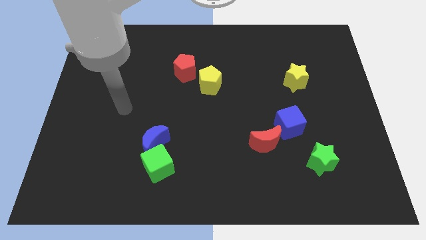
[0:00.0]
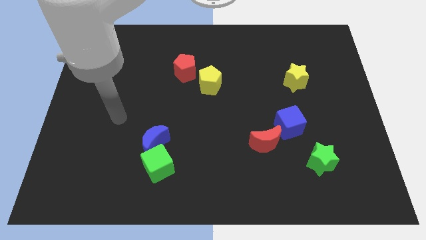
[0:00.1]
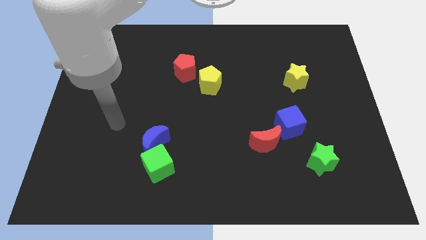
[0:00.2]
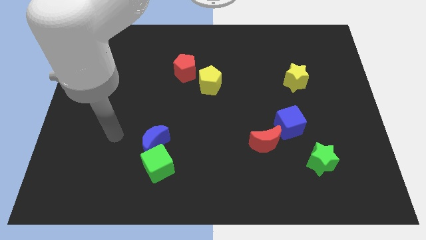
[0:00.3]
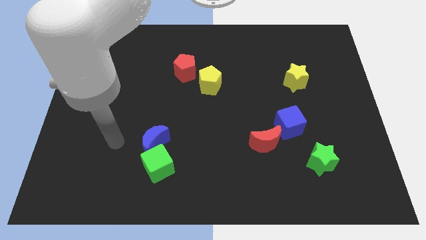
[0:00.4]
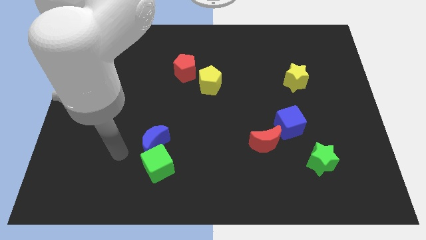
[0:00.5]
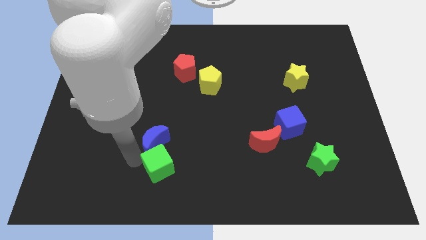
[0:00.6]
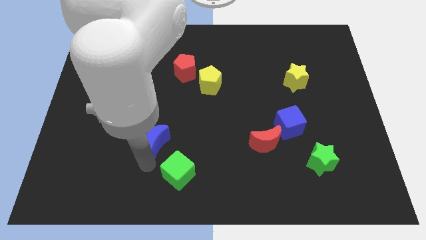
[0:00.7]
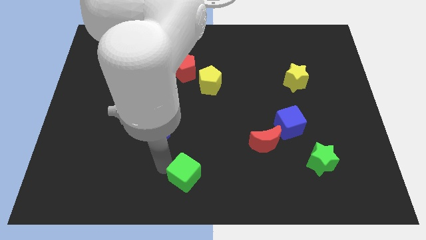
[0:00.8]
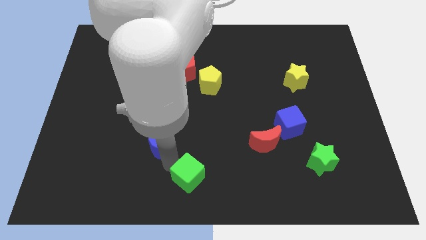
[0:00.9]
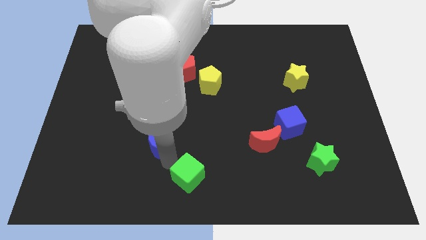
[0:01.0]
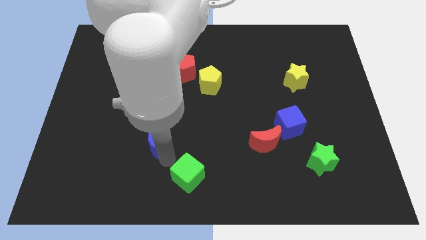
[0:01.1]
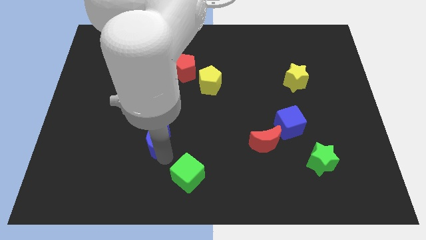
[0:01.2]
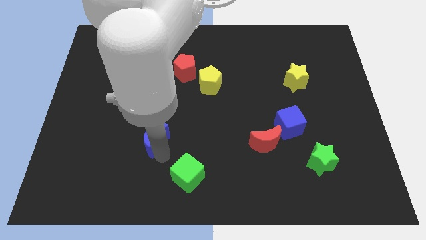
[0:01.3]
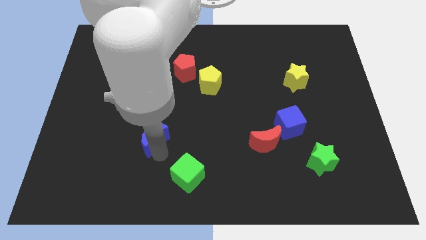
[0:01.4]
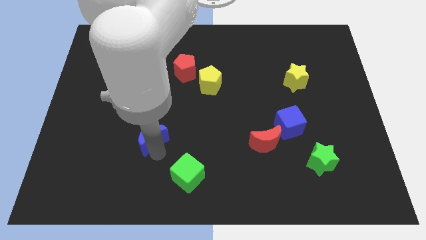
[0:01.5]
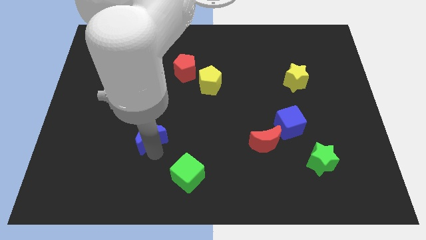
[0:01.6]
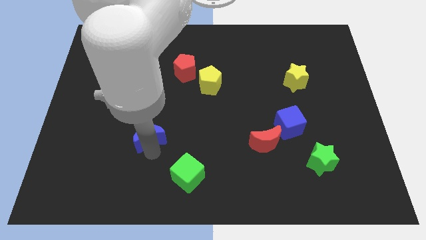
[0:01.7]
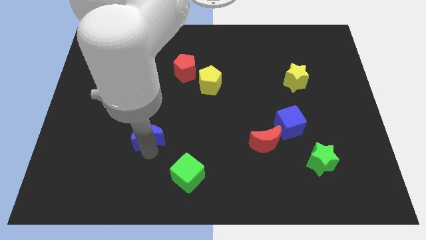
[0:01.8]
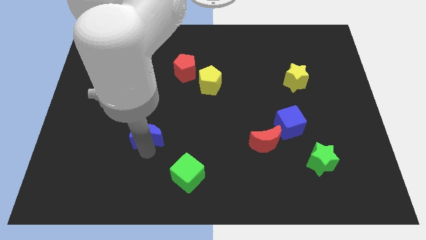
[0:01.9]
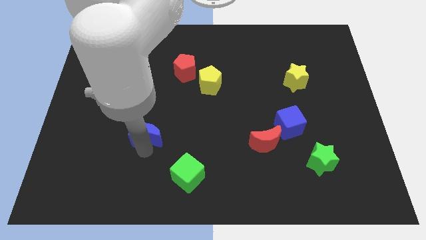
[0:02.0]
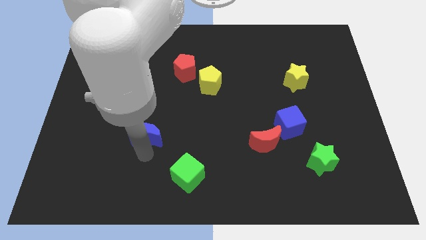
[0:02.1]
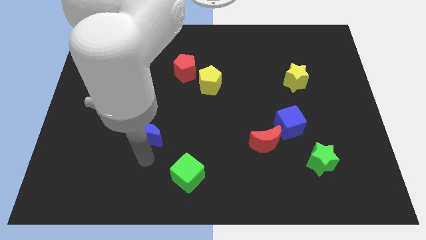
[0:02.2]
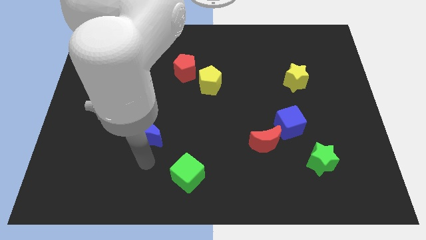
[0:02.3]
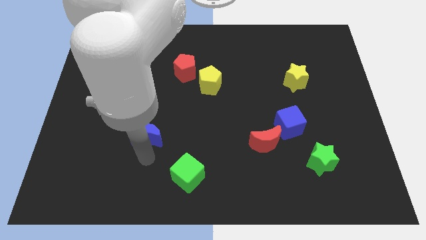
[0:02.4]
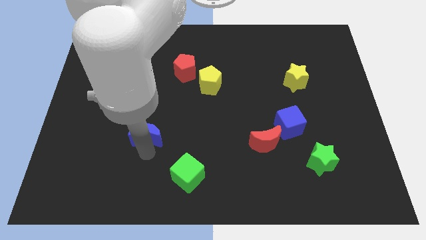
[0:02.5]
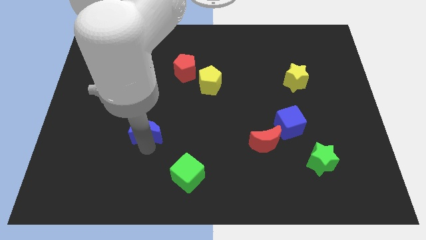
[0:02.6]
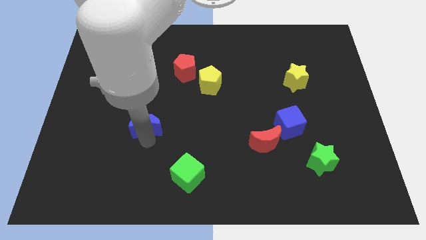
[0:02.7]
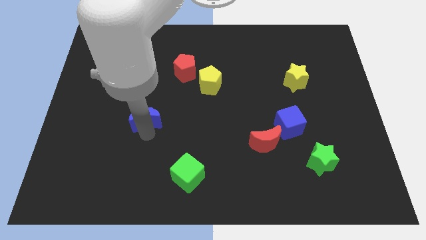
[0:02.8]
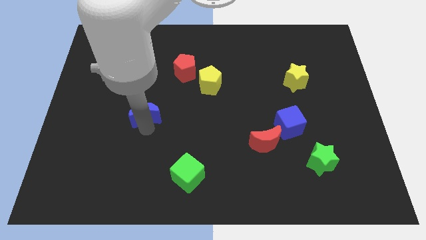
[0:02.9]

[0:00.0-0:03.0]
slightly push the blue moon upwards

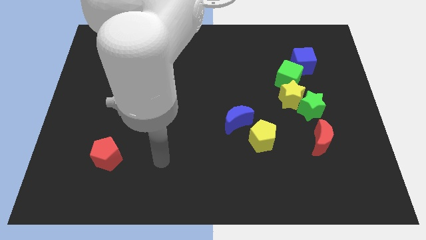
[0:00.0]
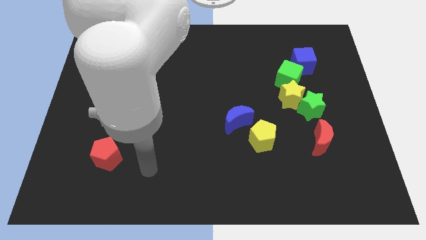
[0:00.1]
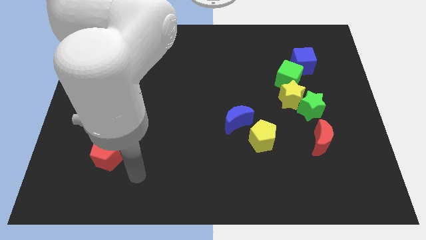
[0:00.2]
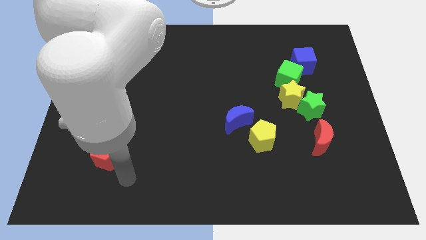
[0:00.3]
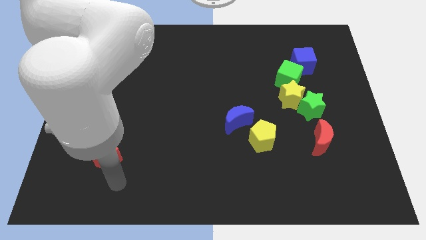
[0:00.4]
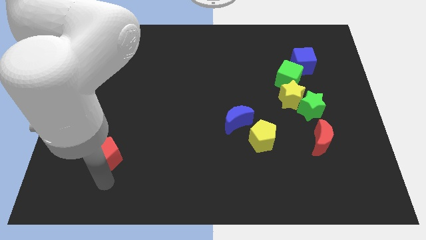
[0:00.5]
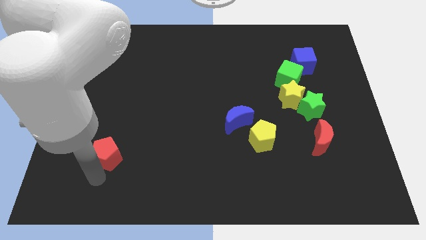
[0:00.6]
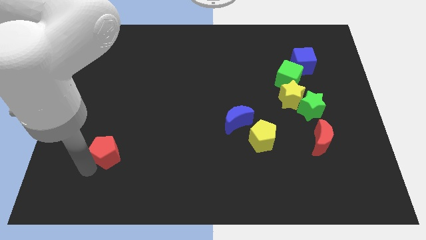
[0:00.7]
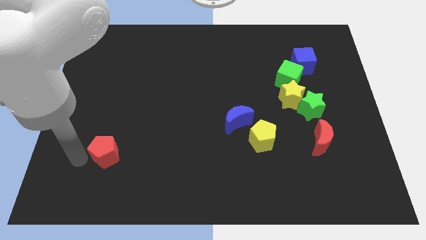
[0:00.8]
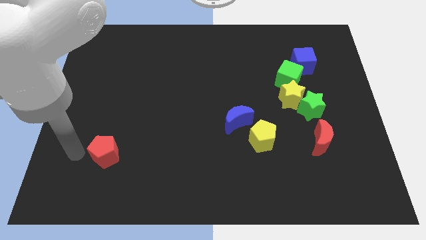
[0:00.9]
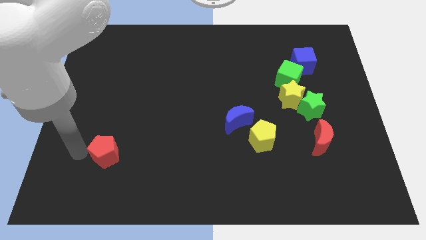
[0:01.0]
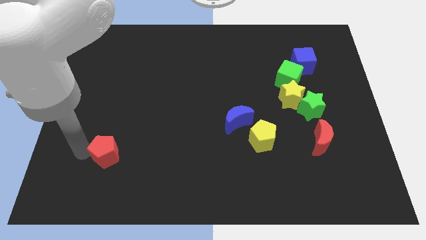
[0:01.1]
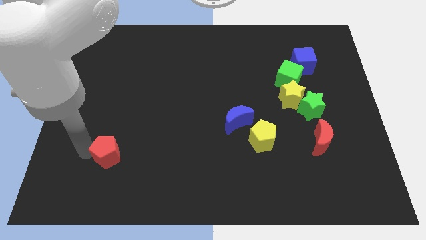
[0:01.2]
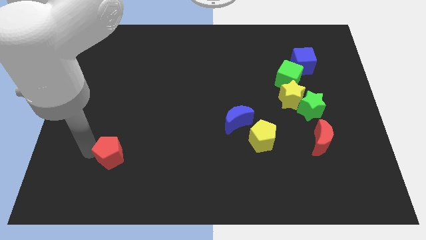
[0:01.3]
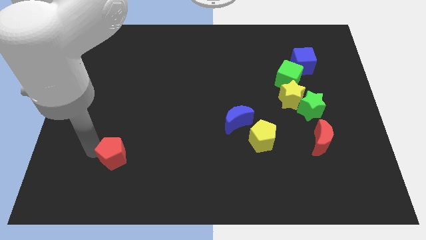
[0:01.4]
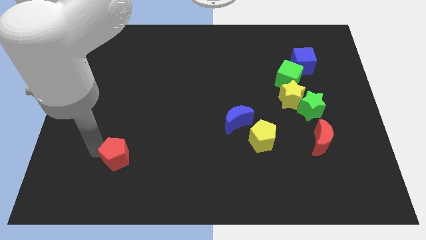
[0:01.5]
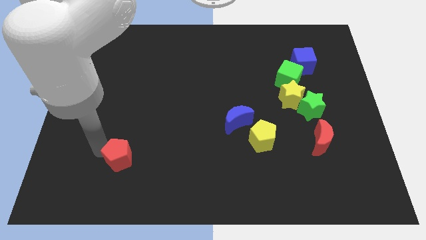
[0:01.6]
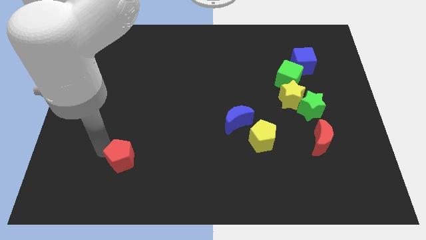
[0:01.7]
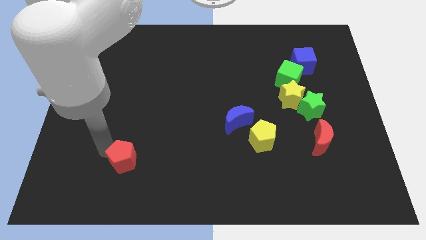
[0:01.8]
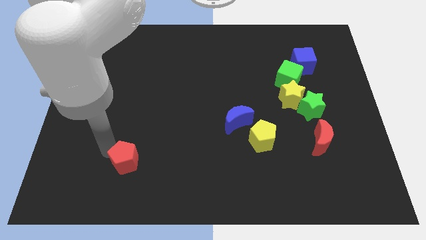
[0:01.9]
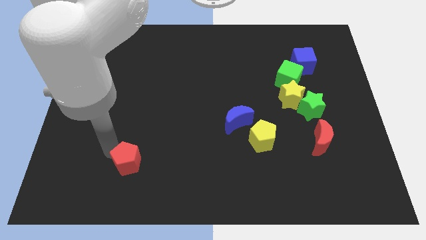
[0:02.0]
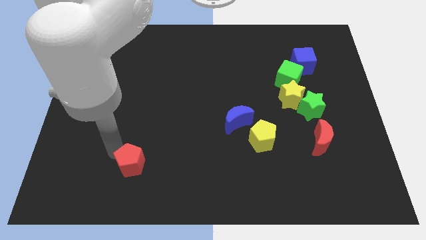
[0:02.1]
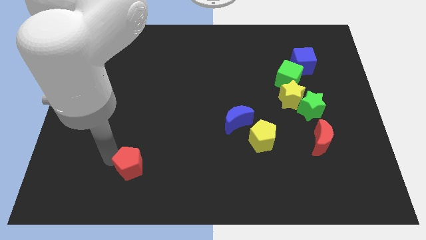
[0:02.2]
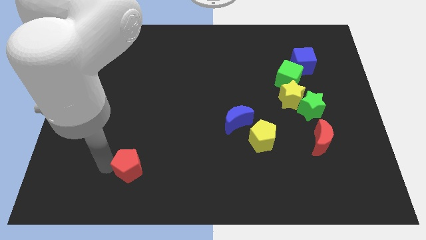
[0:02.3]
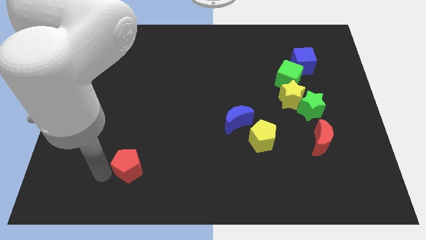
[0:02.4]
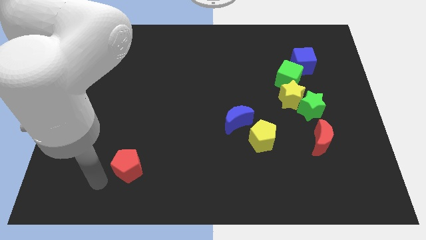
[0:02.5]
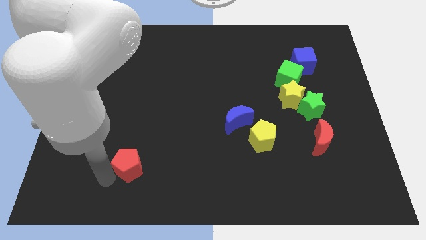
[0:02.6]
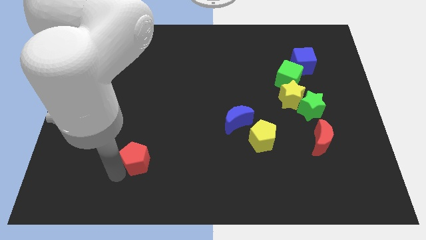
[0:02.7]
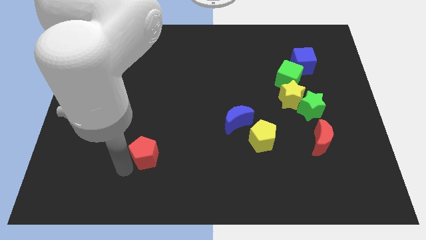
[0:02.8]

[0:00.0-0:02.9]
slightly slide the red pentagon to the right

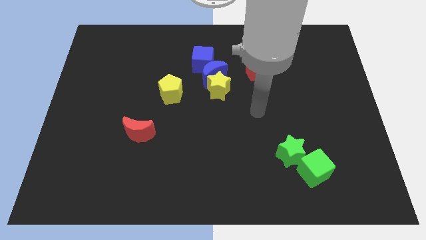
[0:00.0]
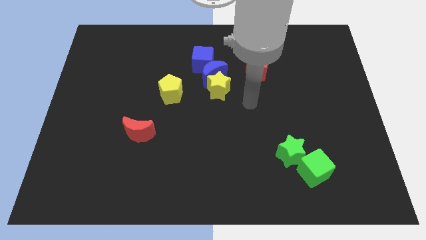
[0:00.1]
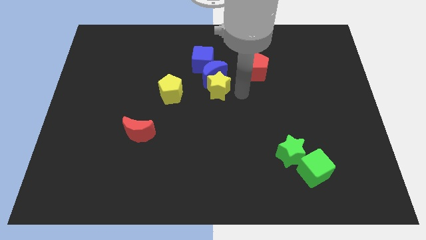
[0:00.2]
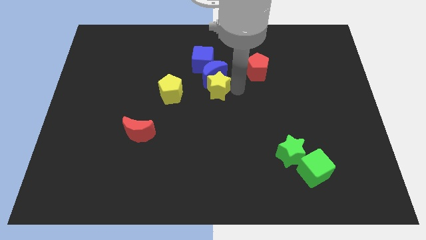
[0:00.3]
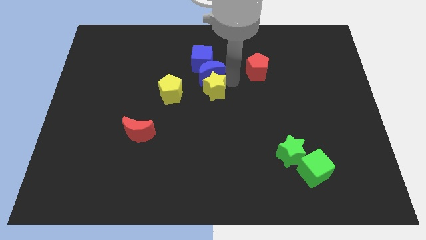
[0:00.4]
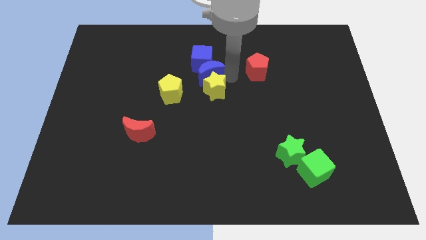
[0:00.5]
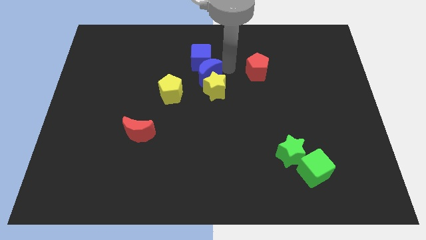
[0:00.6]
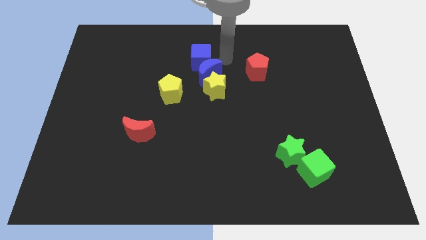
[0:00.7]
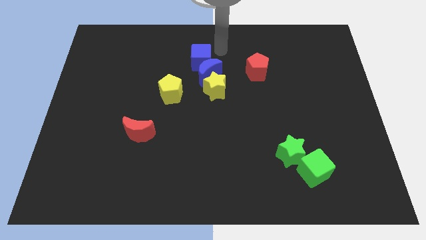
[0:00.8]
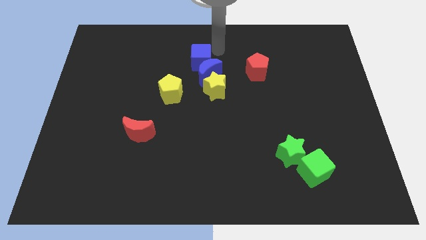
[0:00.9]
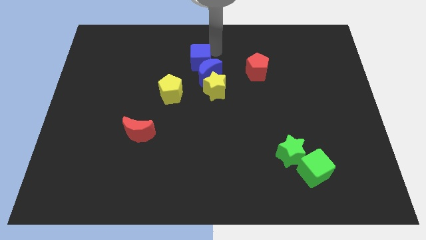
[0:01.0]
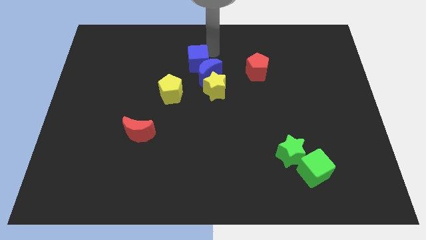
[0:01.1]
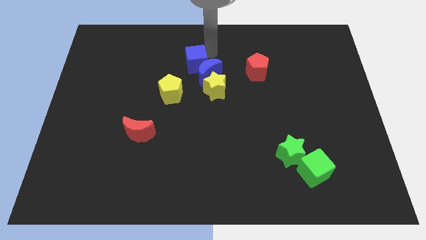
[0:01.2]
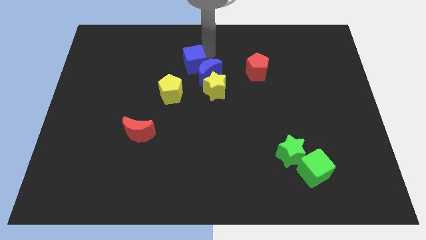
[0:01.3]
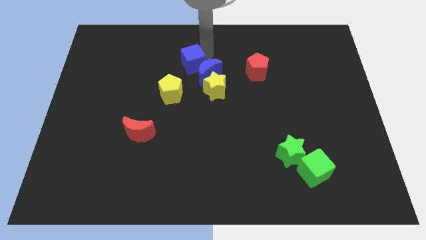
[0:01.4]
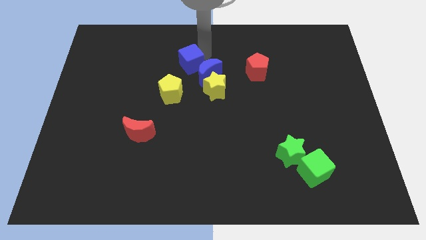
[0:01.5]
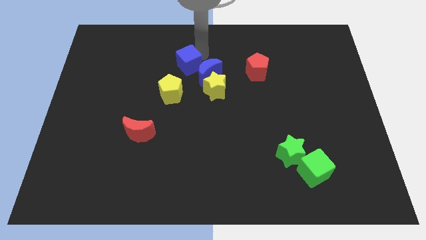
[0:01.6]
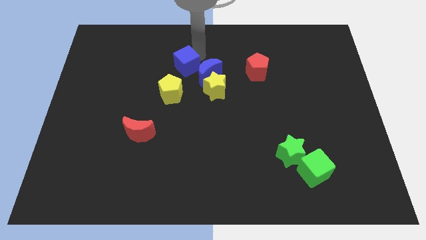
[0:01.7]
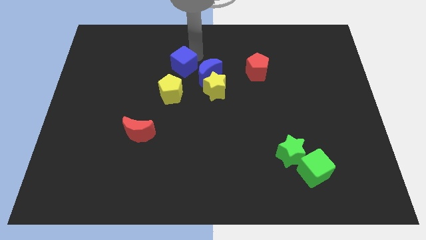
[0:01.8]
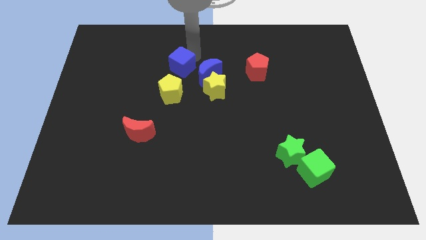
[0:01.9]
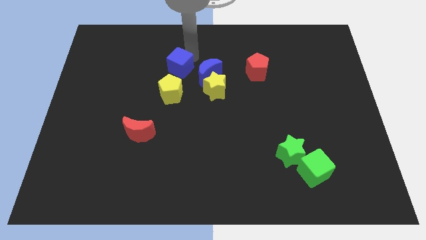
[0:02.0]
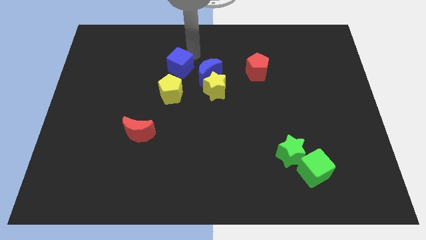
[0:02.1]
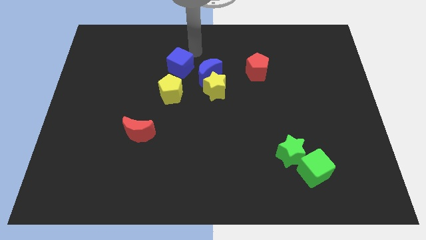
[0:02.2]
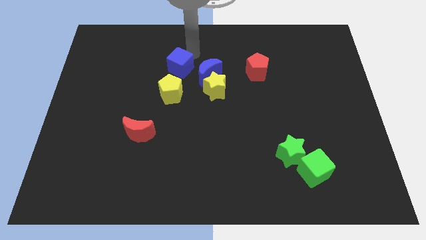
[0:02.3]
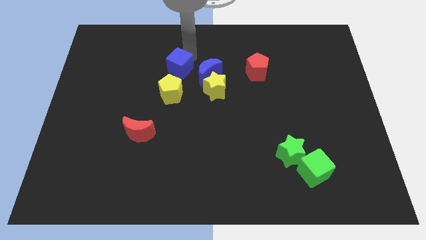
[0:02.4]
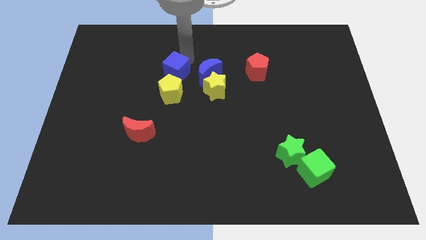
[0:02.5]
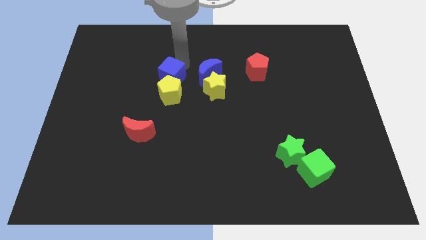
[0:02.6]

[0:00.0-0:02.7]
slide the blue cube down and left somewhat
